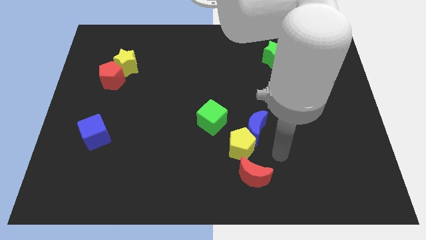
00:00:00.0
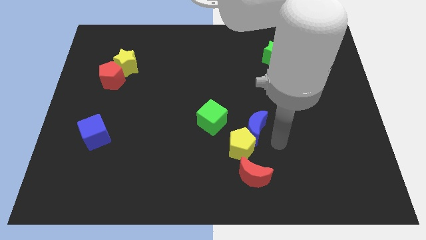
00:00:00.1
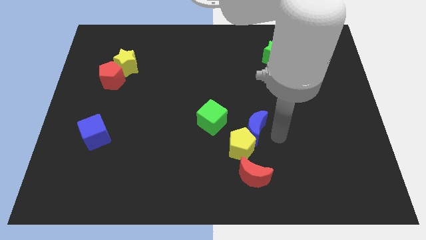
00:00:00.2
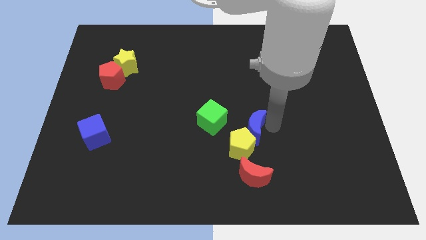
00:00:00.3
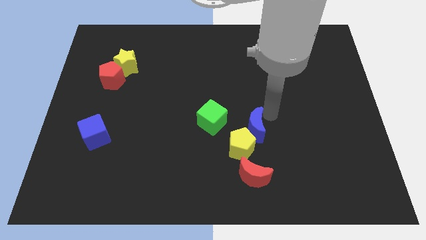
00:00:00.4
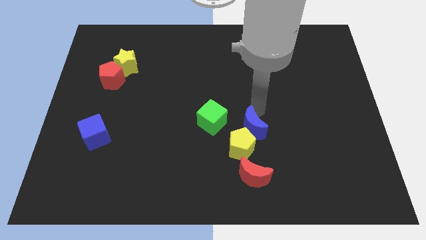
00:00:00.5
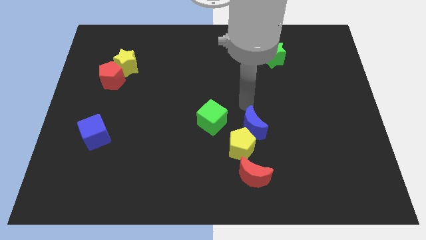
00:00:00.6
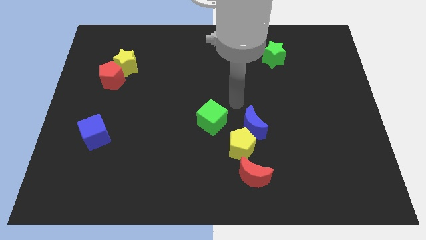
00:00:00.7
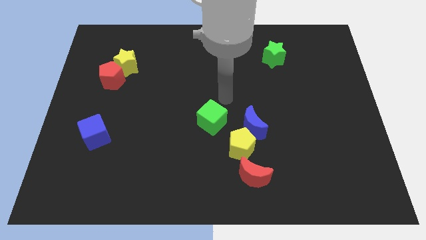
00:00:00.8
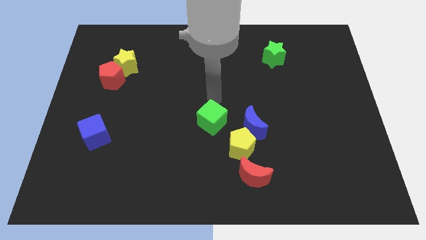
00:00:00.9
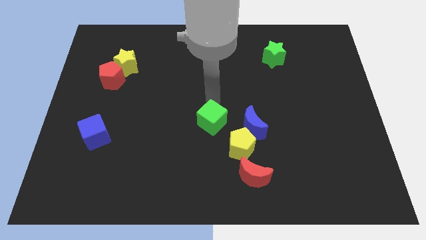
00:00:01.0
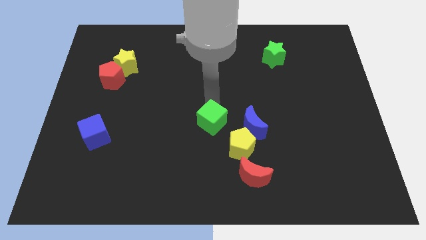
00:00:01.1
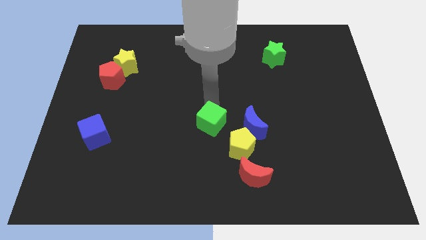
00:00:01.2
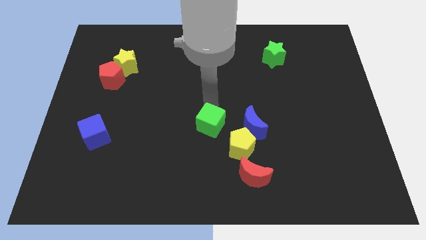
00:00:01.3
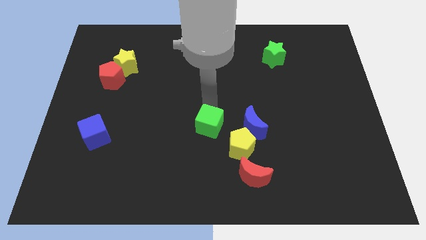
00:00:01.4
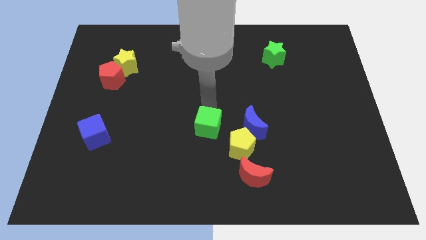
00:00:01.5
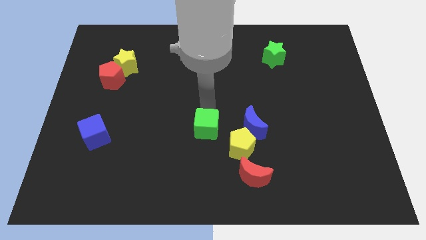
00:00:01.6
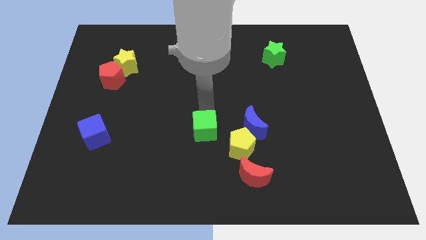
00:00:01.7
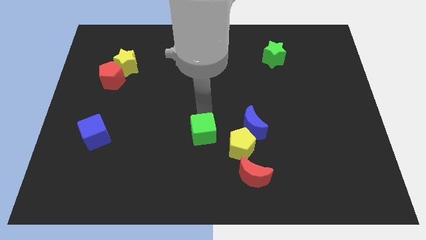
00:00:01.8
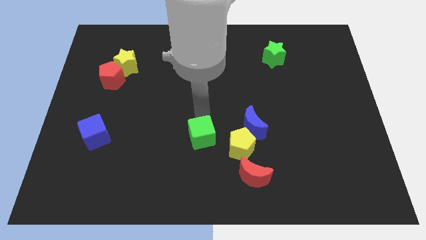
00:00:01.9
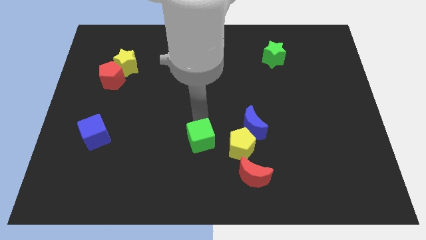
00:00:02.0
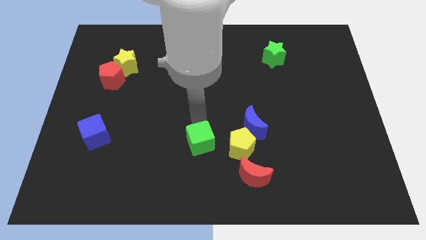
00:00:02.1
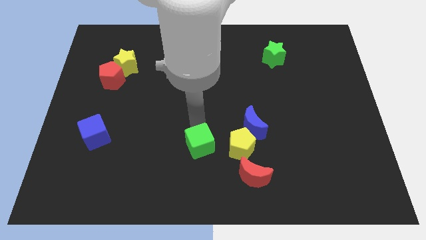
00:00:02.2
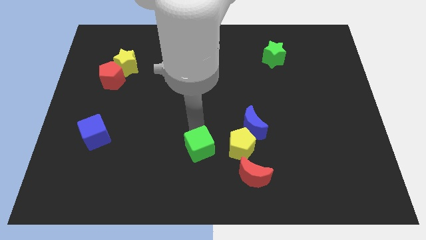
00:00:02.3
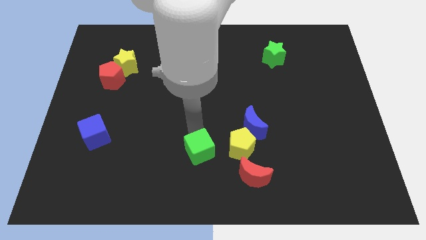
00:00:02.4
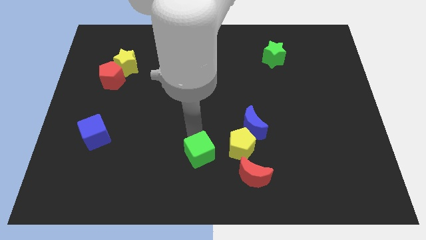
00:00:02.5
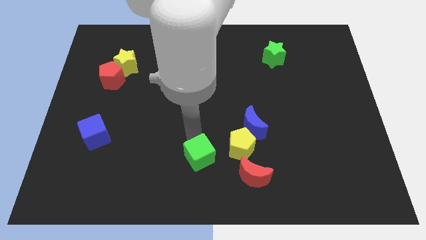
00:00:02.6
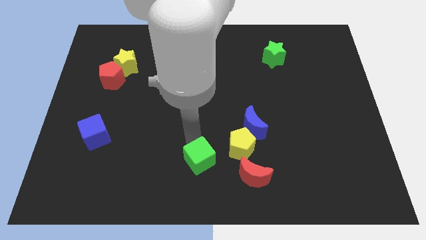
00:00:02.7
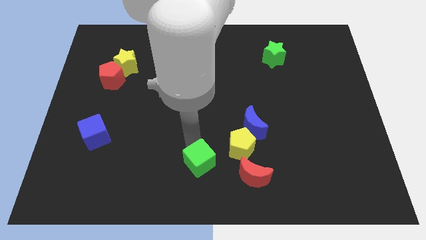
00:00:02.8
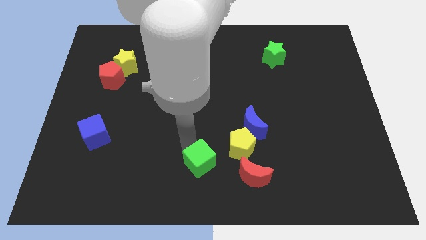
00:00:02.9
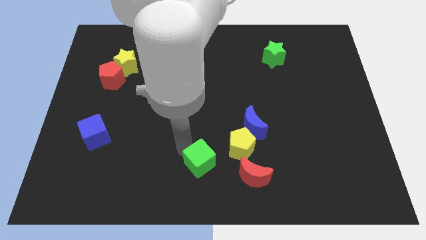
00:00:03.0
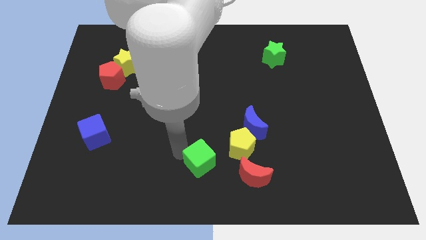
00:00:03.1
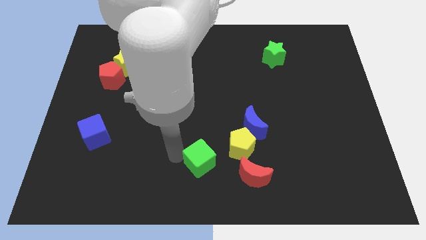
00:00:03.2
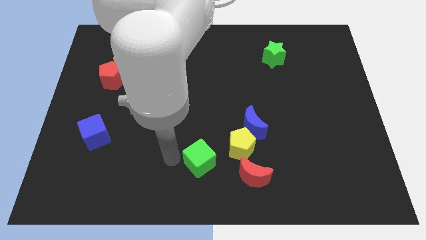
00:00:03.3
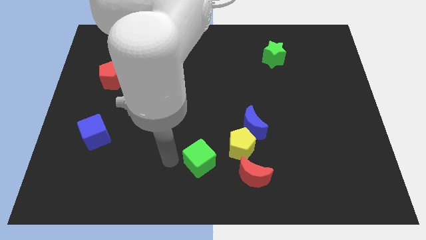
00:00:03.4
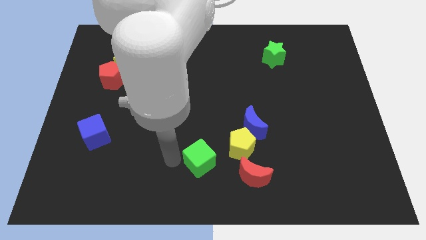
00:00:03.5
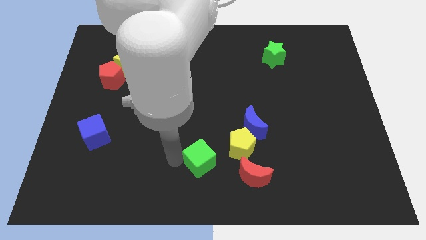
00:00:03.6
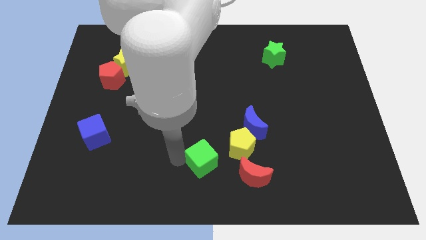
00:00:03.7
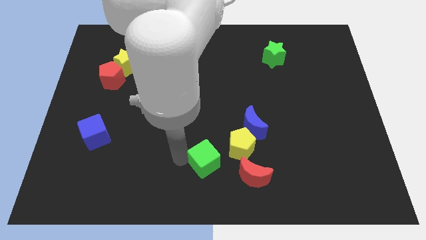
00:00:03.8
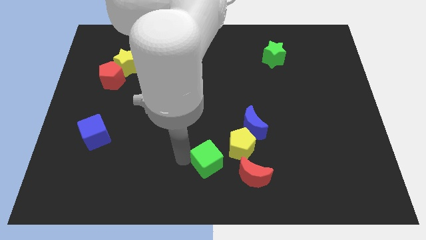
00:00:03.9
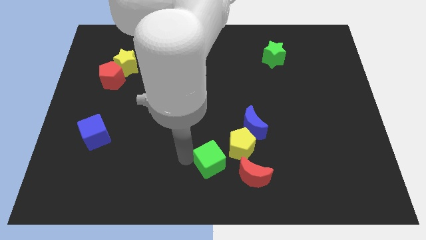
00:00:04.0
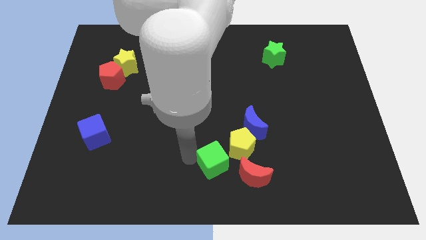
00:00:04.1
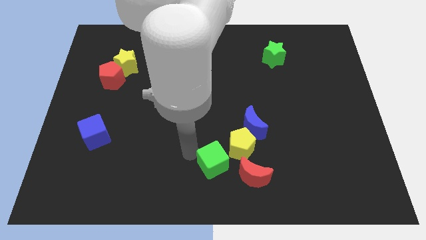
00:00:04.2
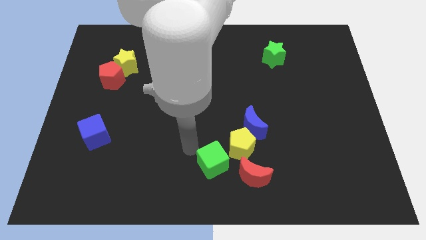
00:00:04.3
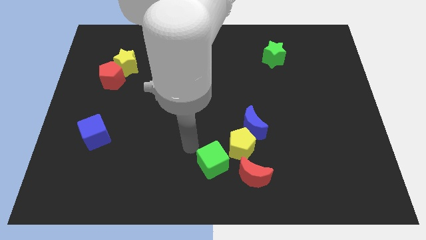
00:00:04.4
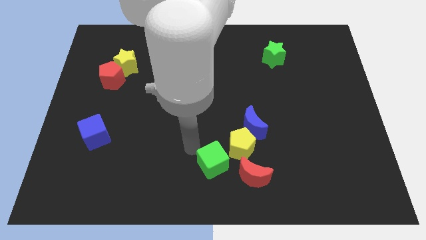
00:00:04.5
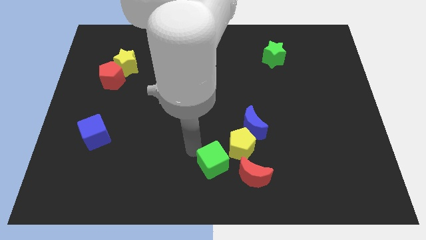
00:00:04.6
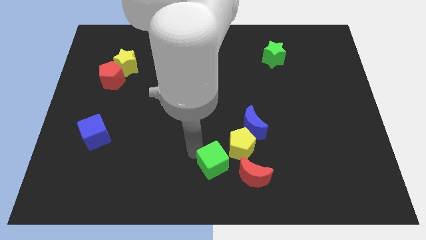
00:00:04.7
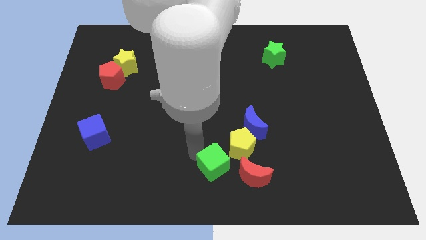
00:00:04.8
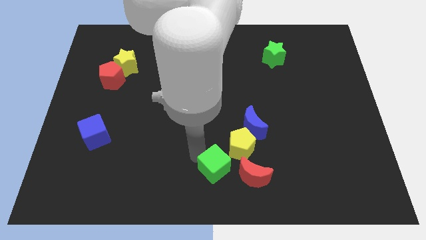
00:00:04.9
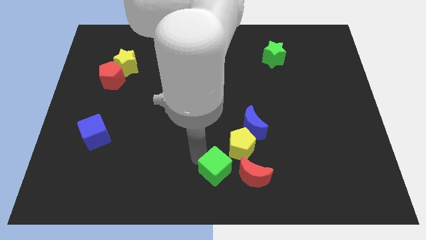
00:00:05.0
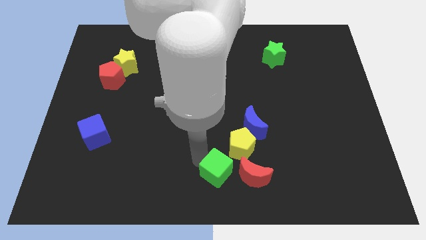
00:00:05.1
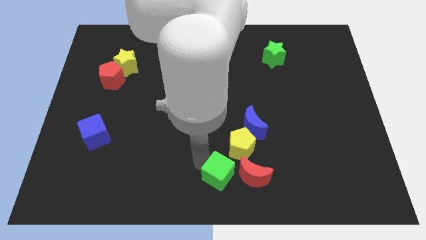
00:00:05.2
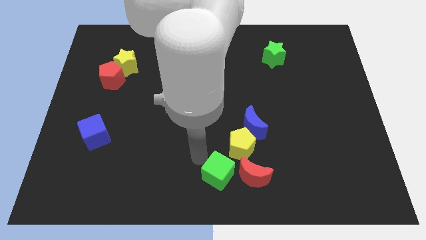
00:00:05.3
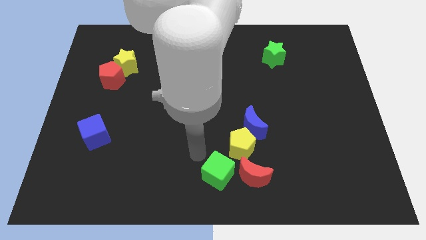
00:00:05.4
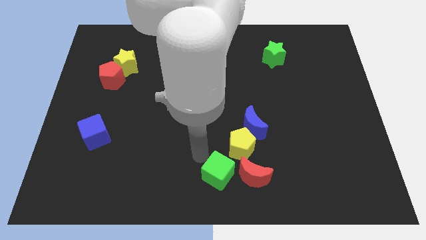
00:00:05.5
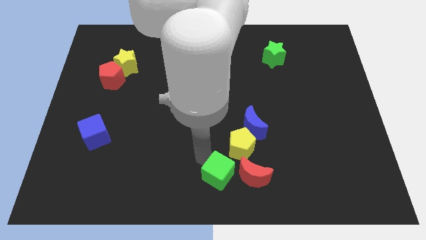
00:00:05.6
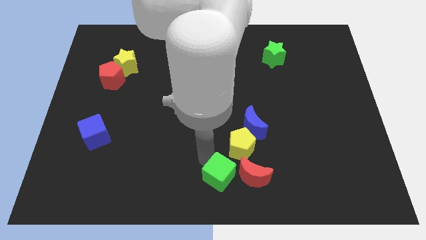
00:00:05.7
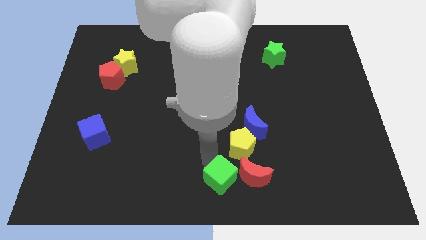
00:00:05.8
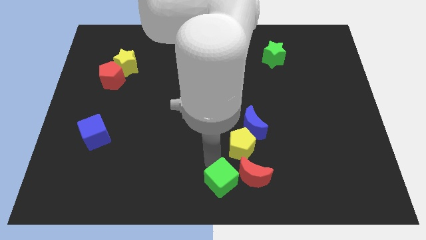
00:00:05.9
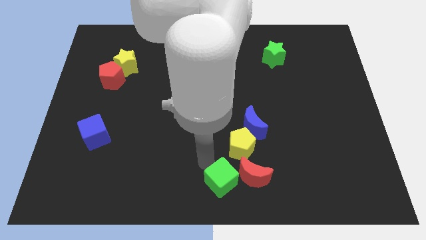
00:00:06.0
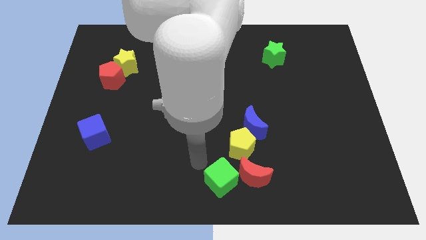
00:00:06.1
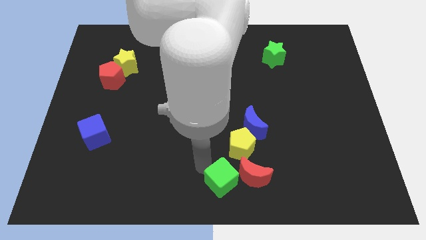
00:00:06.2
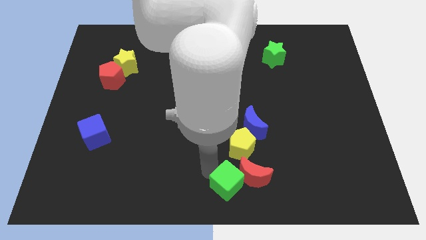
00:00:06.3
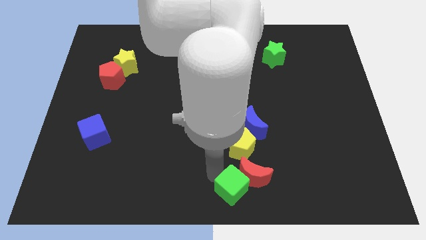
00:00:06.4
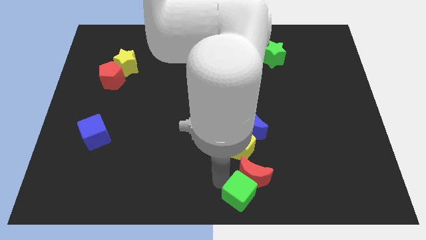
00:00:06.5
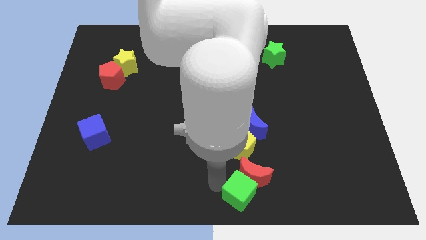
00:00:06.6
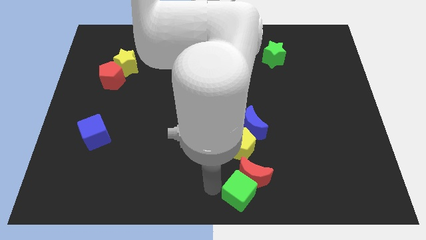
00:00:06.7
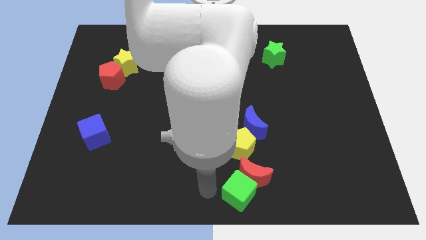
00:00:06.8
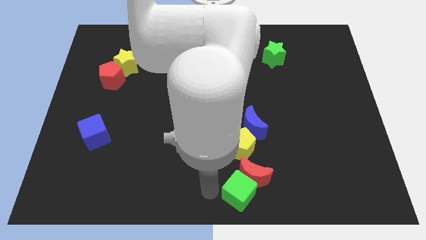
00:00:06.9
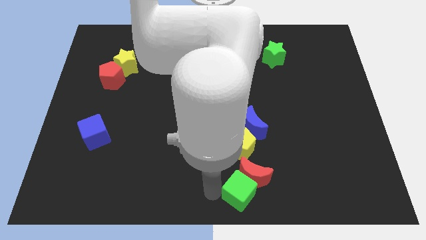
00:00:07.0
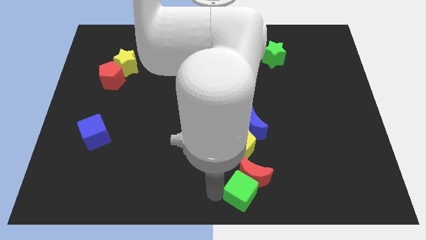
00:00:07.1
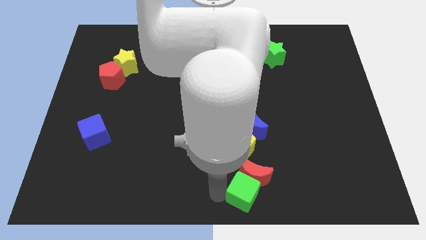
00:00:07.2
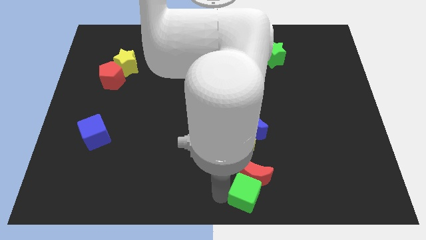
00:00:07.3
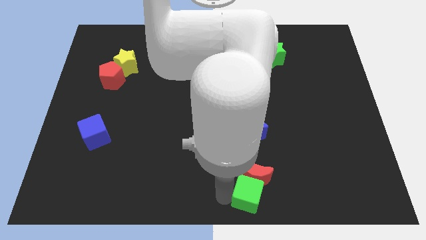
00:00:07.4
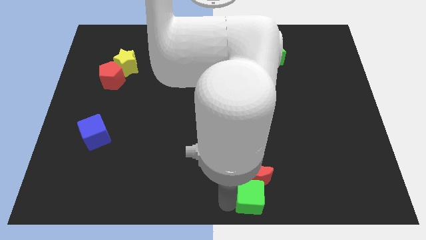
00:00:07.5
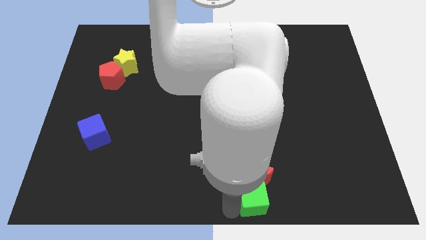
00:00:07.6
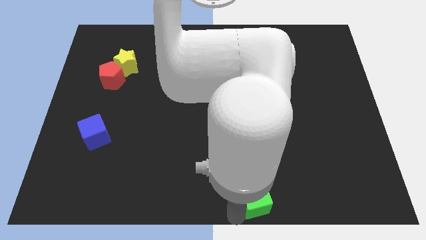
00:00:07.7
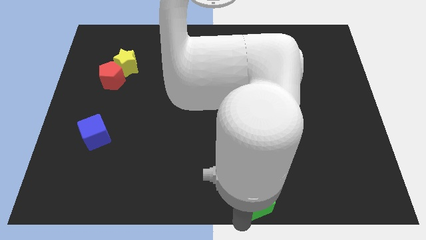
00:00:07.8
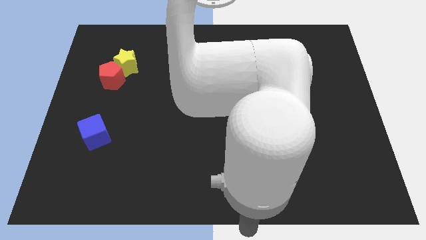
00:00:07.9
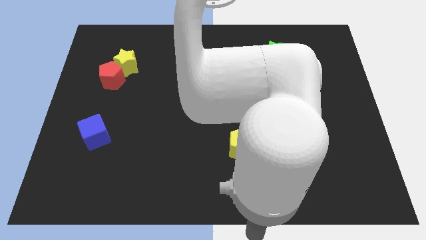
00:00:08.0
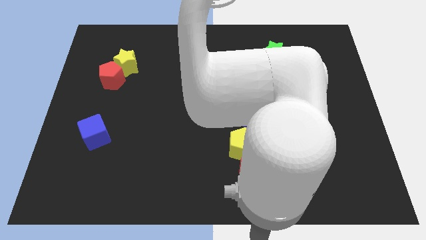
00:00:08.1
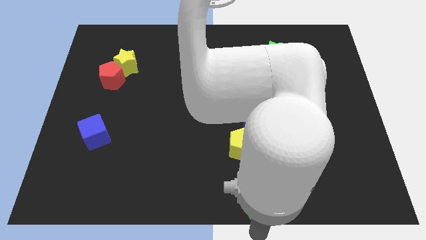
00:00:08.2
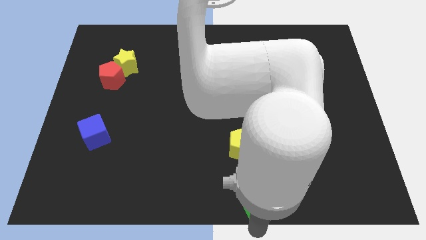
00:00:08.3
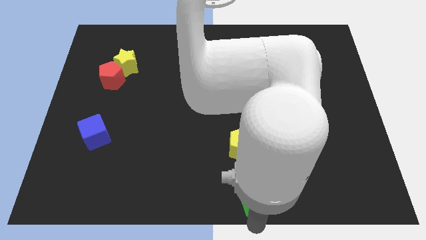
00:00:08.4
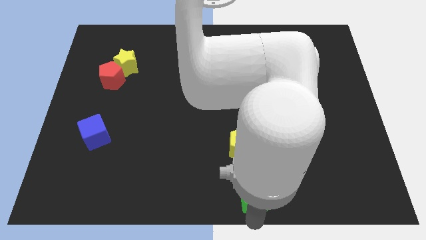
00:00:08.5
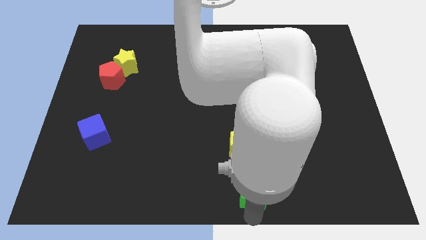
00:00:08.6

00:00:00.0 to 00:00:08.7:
put the green cube to the bottom side of the blue moon
